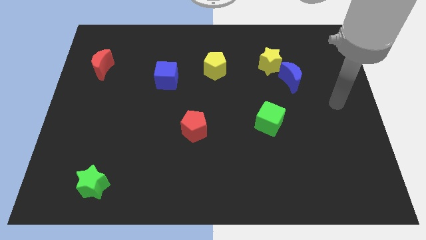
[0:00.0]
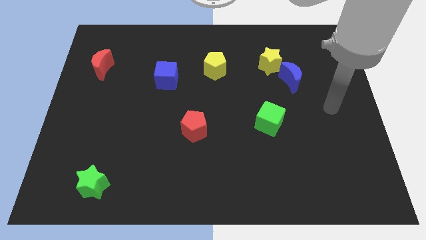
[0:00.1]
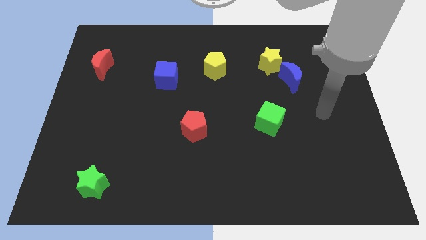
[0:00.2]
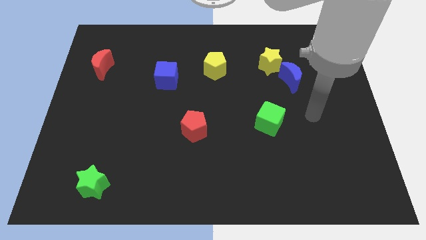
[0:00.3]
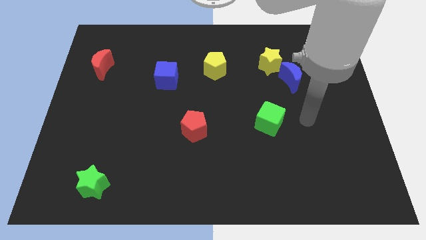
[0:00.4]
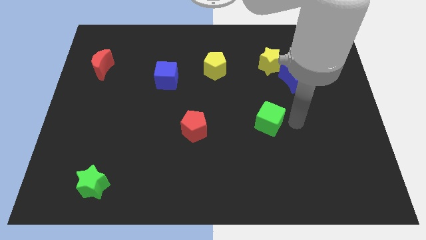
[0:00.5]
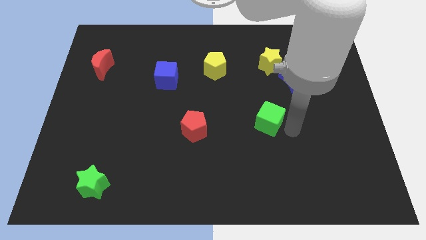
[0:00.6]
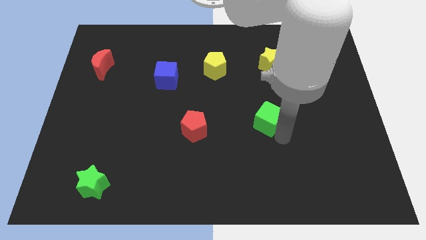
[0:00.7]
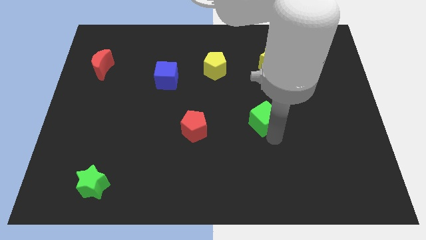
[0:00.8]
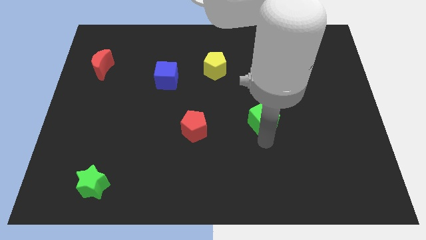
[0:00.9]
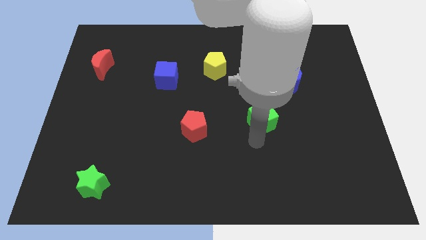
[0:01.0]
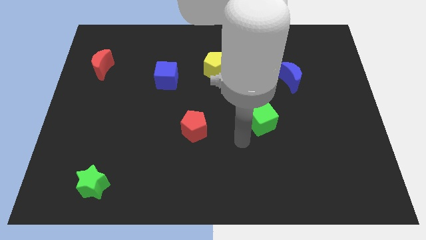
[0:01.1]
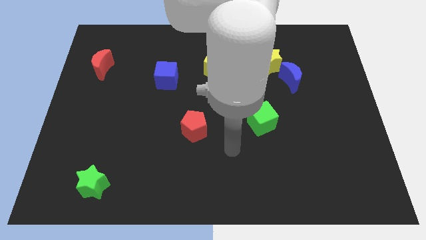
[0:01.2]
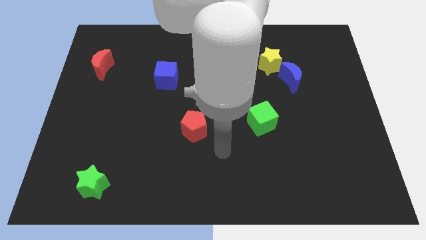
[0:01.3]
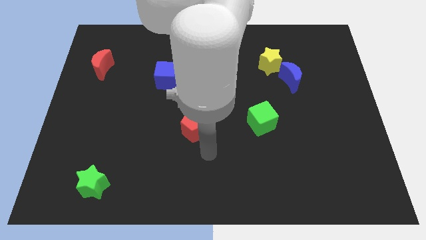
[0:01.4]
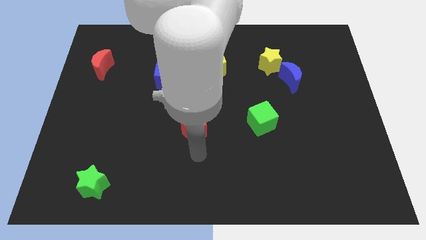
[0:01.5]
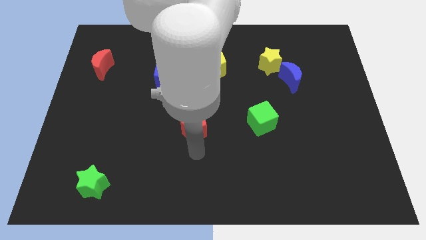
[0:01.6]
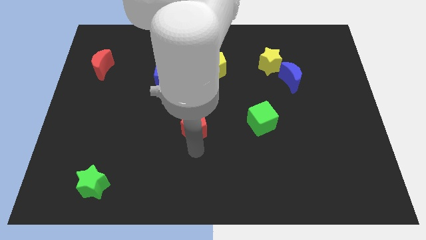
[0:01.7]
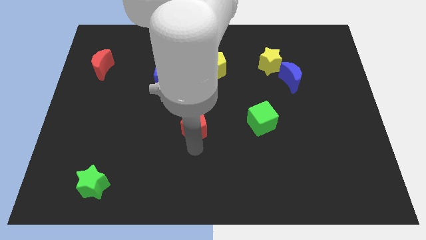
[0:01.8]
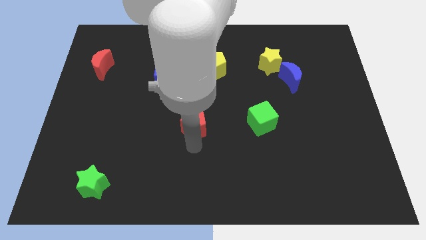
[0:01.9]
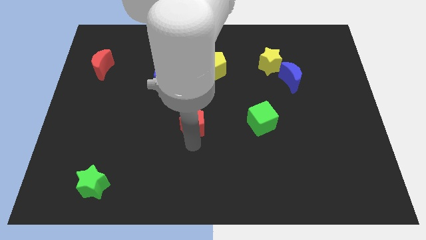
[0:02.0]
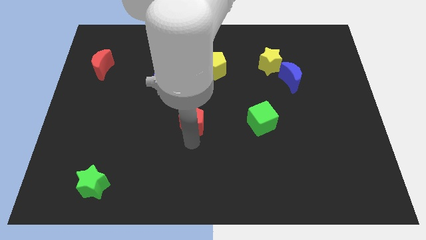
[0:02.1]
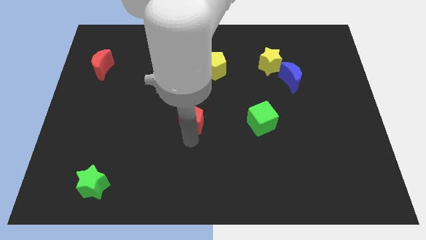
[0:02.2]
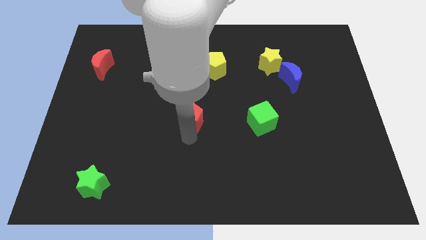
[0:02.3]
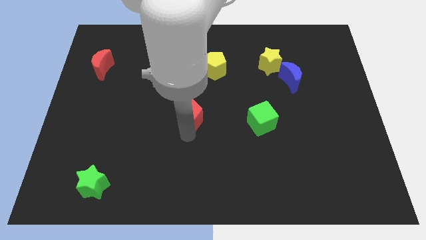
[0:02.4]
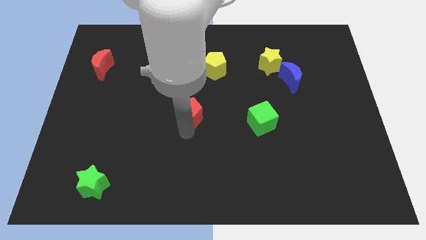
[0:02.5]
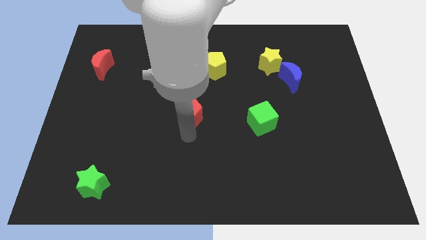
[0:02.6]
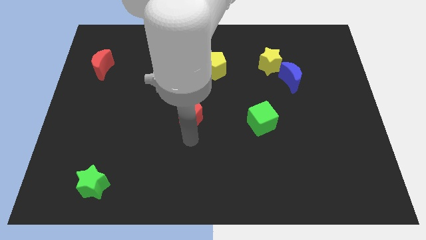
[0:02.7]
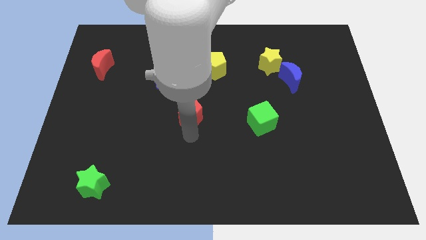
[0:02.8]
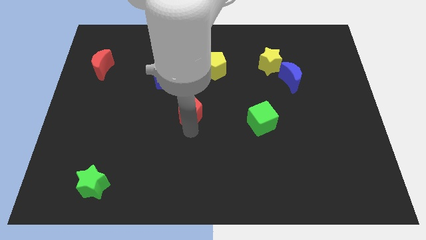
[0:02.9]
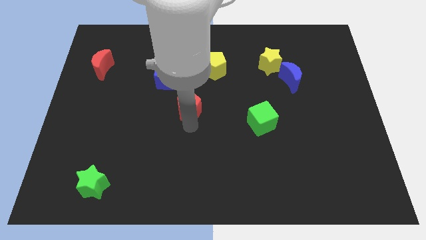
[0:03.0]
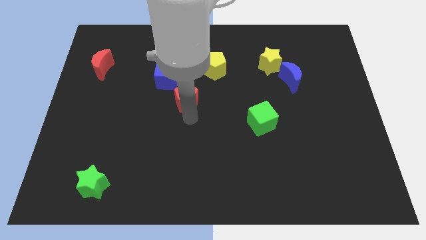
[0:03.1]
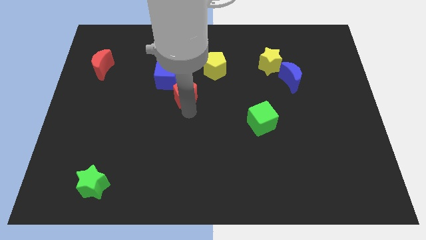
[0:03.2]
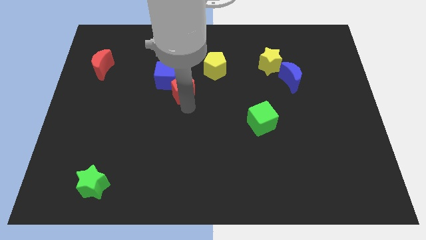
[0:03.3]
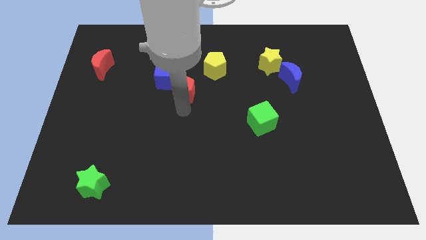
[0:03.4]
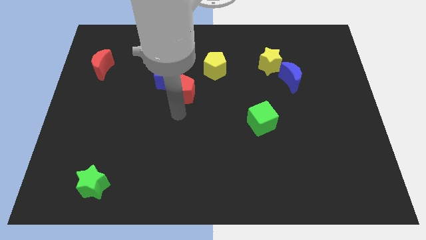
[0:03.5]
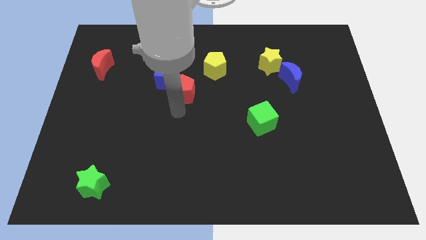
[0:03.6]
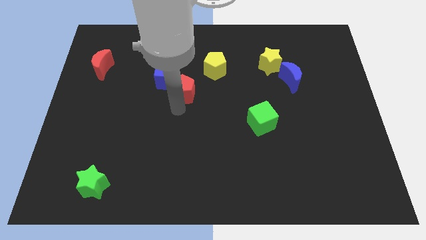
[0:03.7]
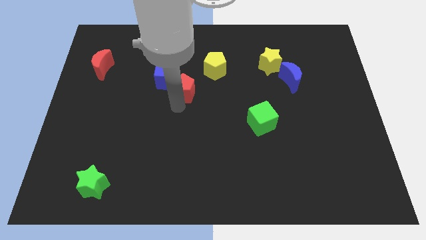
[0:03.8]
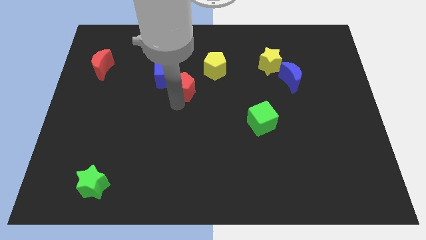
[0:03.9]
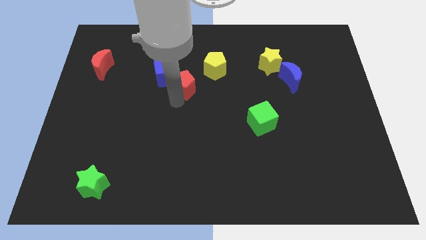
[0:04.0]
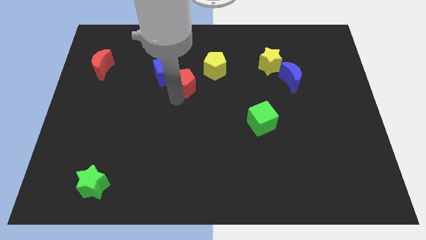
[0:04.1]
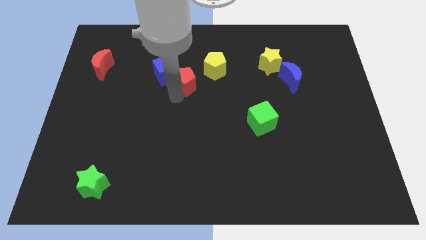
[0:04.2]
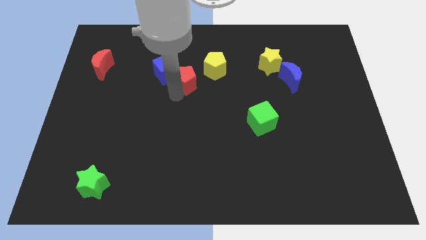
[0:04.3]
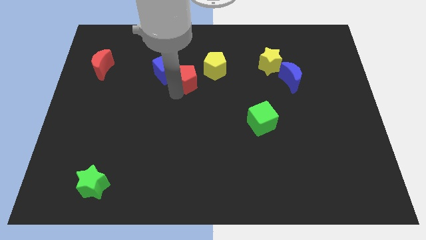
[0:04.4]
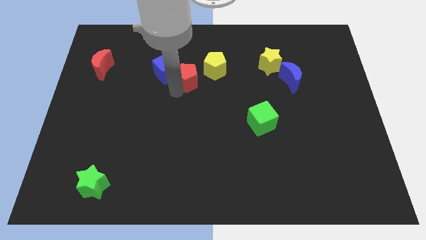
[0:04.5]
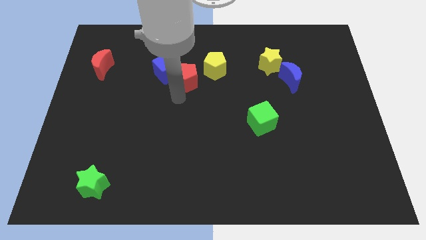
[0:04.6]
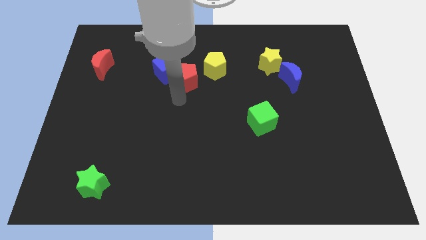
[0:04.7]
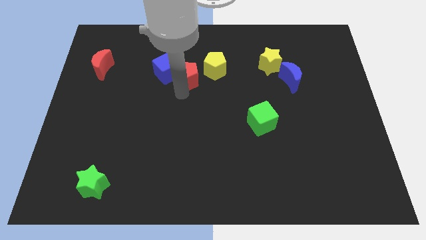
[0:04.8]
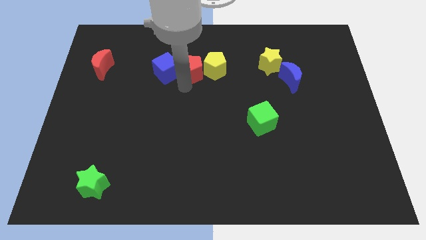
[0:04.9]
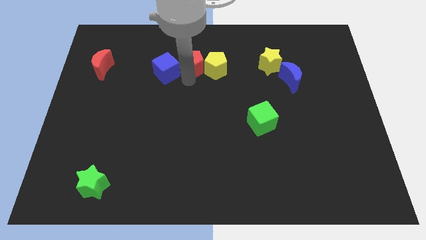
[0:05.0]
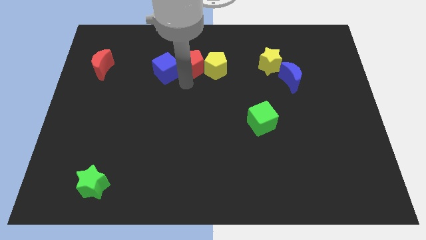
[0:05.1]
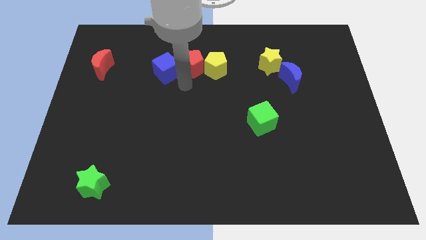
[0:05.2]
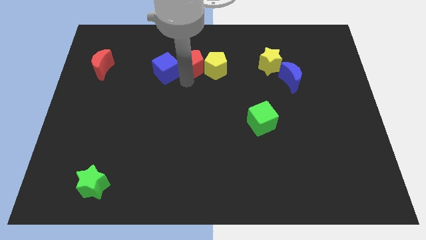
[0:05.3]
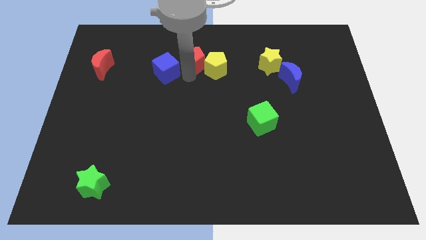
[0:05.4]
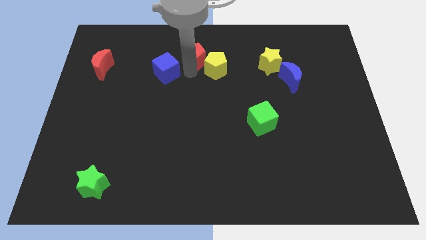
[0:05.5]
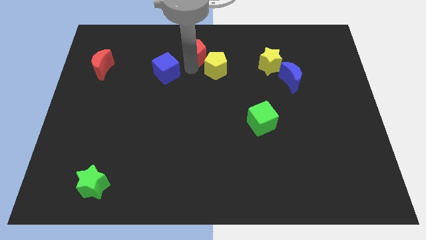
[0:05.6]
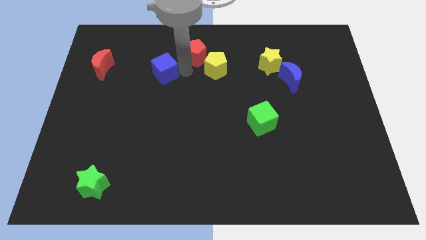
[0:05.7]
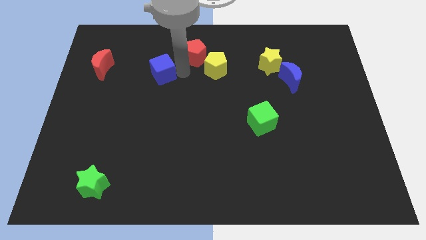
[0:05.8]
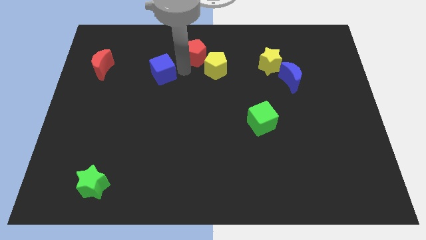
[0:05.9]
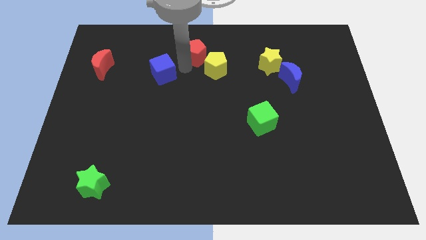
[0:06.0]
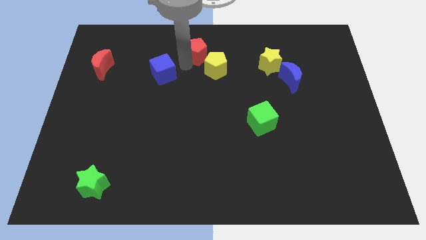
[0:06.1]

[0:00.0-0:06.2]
push the red pentagon to the top side
